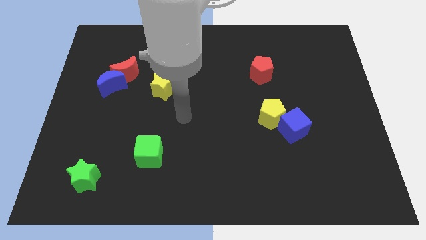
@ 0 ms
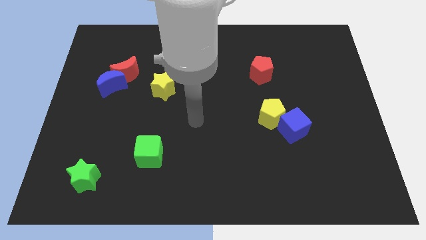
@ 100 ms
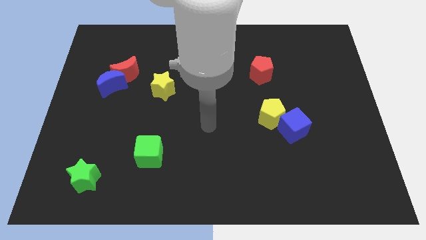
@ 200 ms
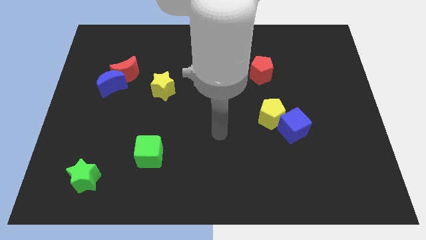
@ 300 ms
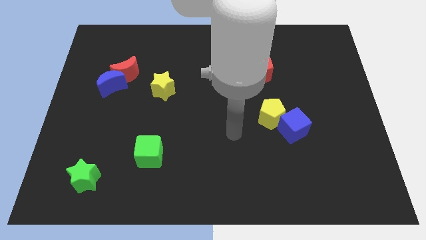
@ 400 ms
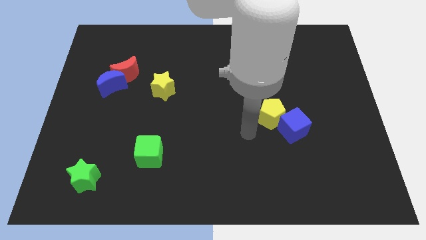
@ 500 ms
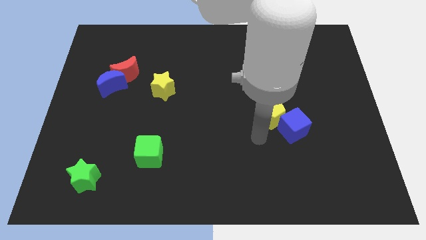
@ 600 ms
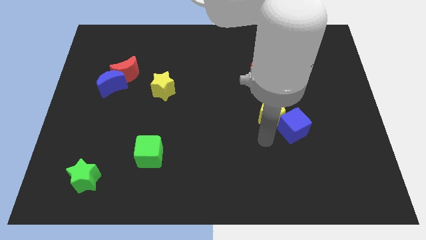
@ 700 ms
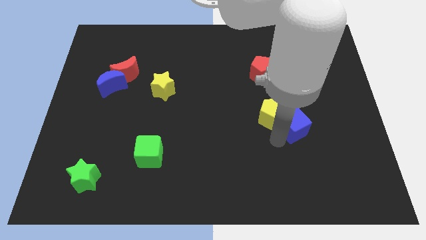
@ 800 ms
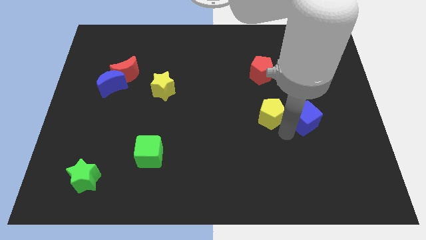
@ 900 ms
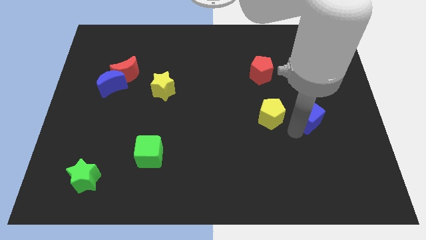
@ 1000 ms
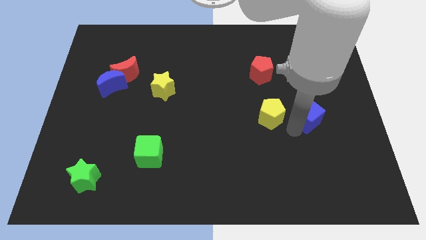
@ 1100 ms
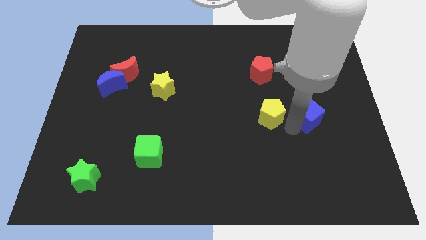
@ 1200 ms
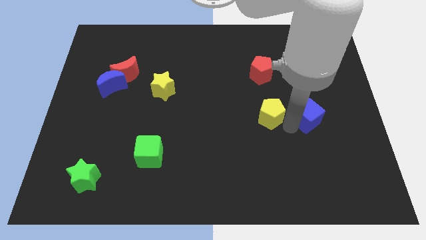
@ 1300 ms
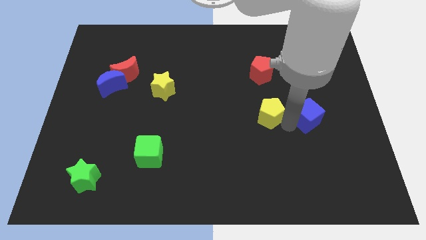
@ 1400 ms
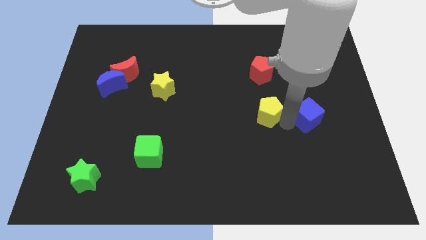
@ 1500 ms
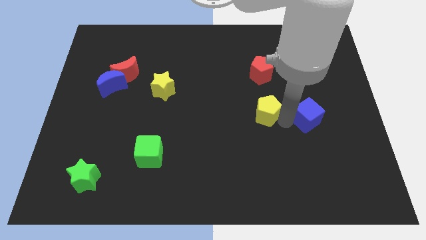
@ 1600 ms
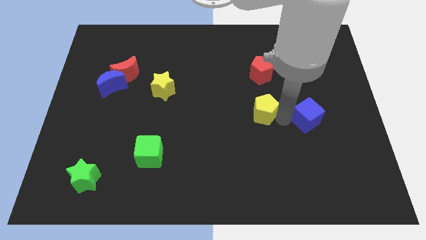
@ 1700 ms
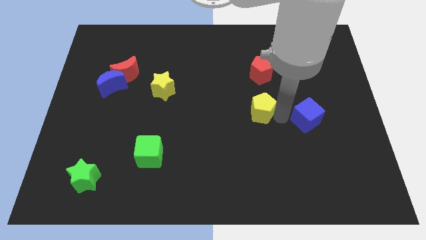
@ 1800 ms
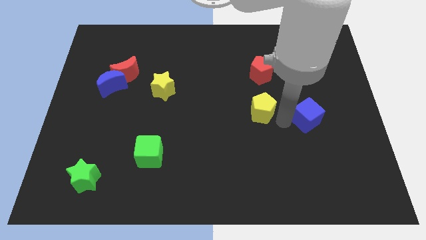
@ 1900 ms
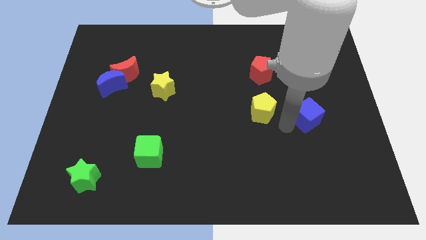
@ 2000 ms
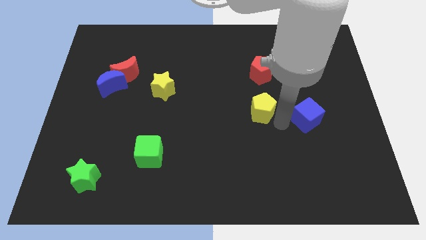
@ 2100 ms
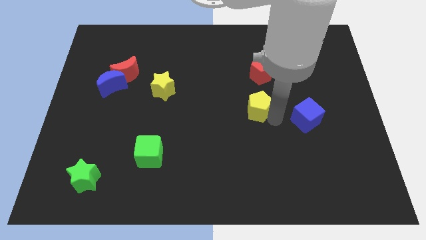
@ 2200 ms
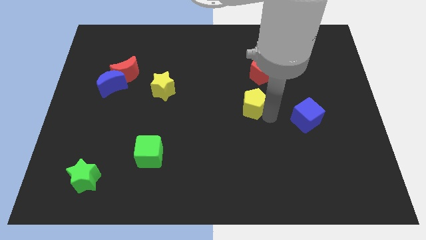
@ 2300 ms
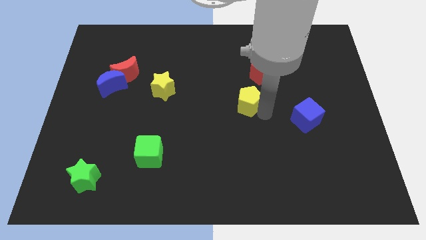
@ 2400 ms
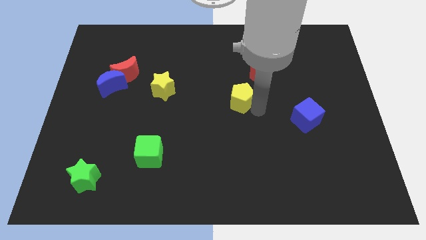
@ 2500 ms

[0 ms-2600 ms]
slightly push the yellow pentagon up and left

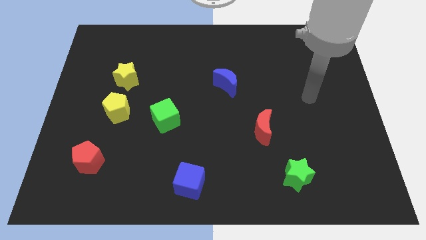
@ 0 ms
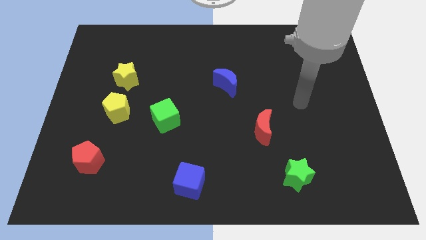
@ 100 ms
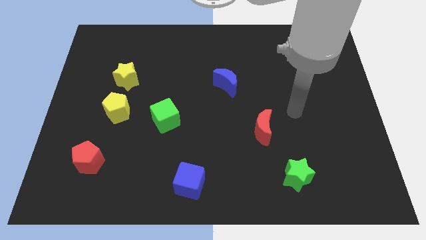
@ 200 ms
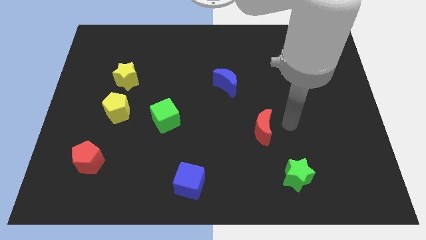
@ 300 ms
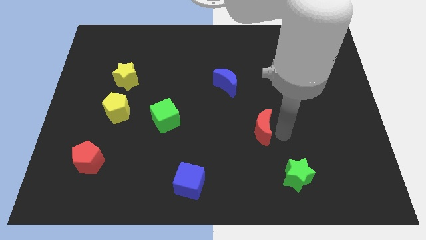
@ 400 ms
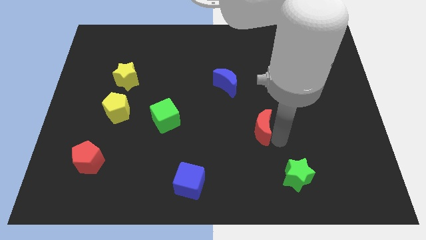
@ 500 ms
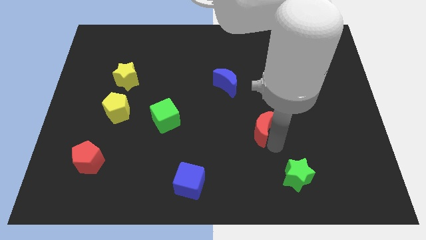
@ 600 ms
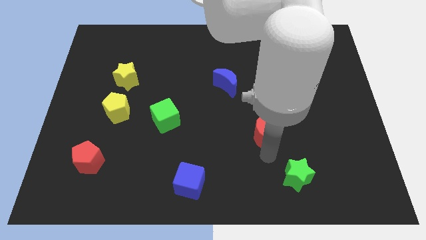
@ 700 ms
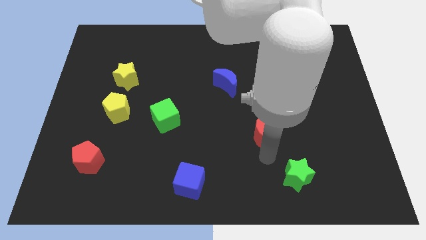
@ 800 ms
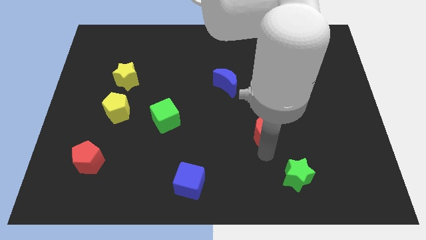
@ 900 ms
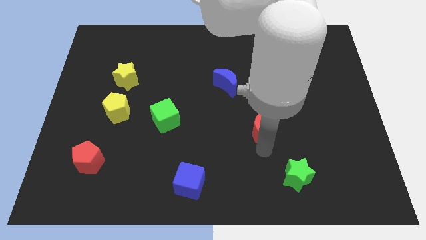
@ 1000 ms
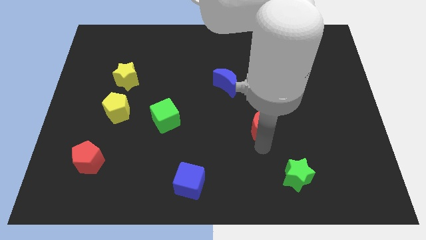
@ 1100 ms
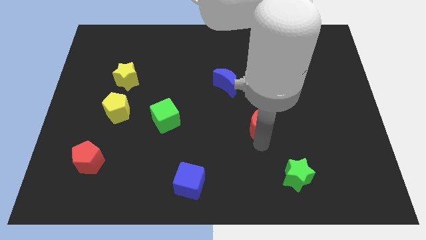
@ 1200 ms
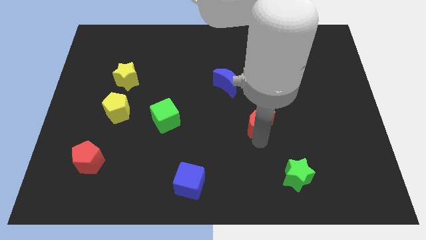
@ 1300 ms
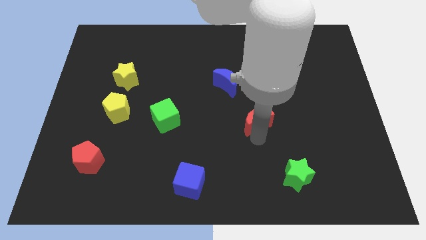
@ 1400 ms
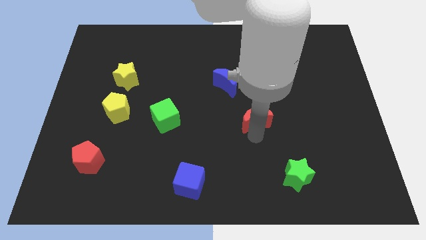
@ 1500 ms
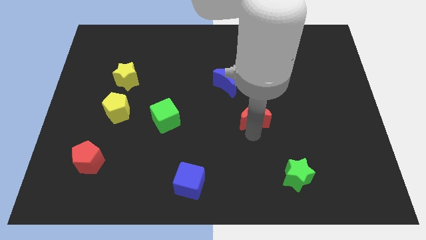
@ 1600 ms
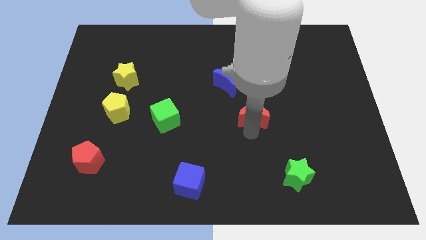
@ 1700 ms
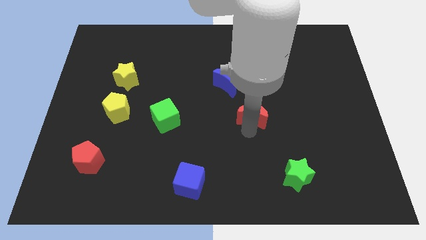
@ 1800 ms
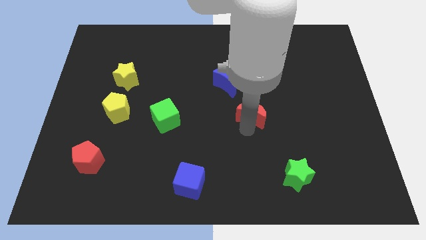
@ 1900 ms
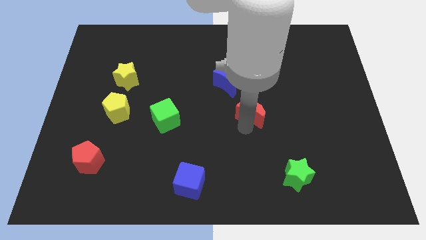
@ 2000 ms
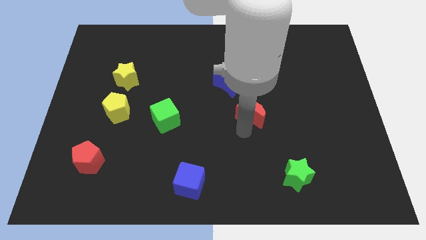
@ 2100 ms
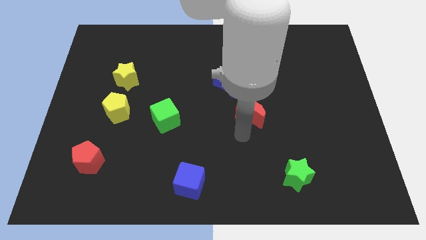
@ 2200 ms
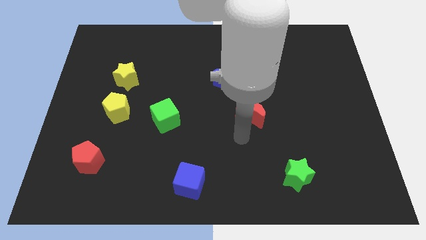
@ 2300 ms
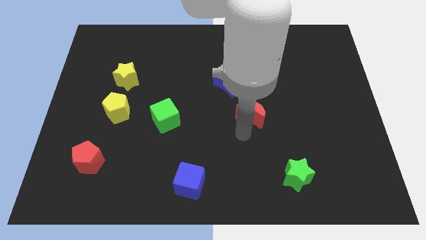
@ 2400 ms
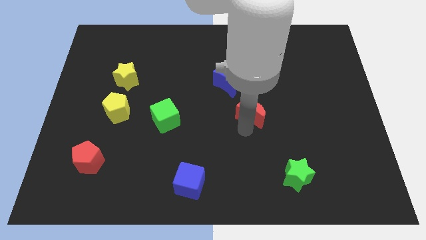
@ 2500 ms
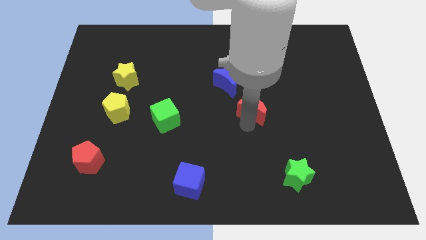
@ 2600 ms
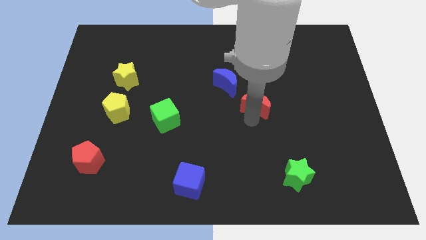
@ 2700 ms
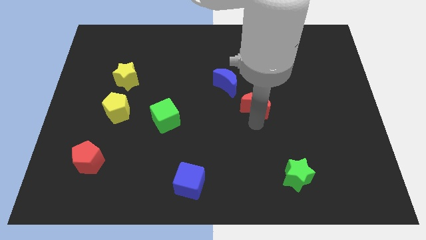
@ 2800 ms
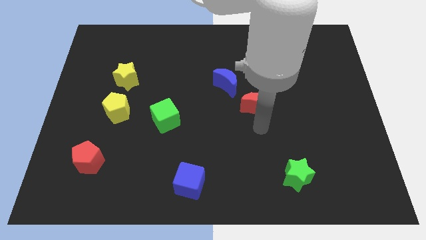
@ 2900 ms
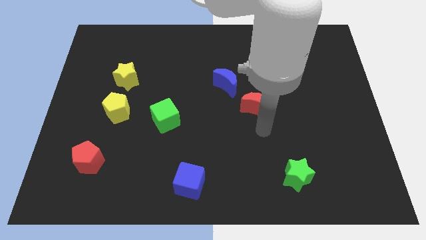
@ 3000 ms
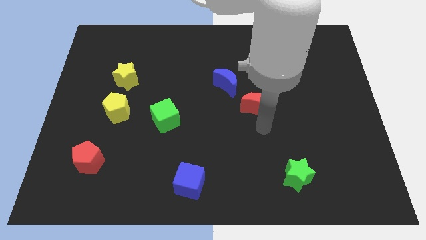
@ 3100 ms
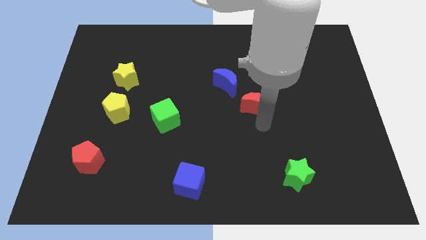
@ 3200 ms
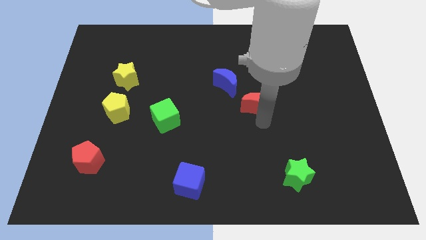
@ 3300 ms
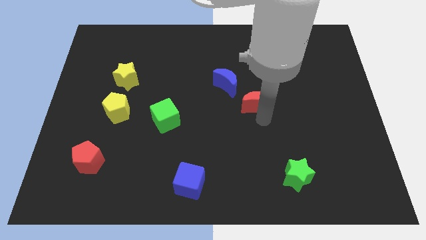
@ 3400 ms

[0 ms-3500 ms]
slightly slide the red moon upwards

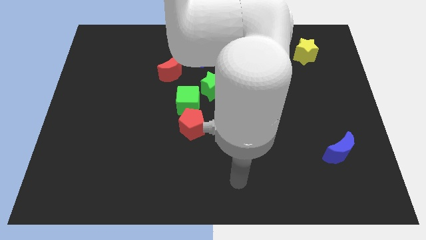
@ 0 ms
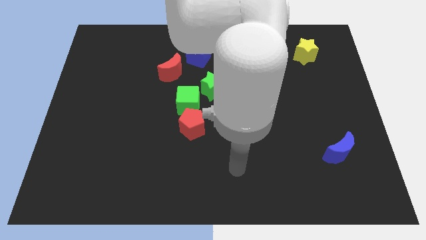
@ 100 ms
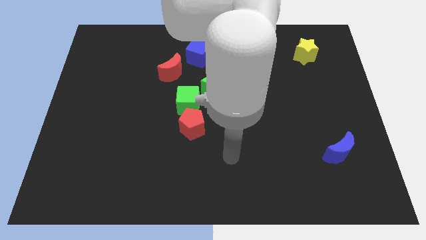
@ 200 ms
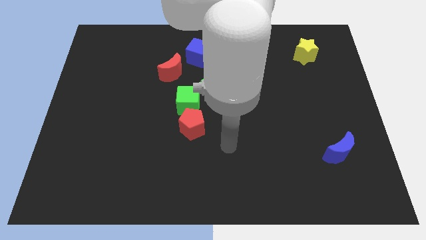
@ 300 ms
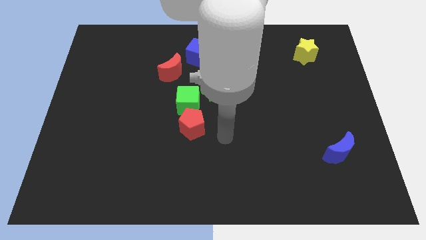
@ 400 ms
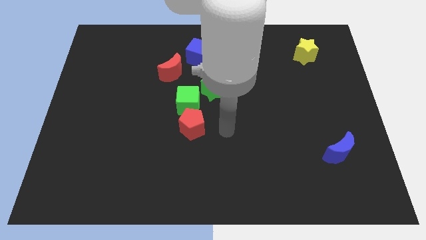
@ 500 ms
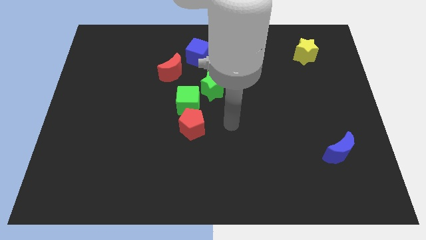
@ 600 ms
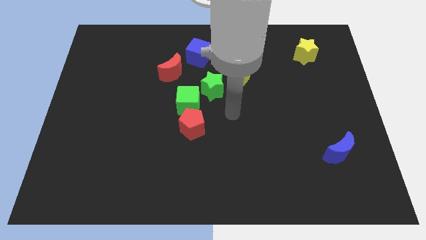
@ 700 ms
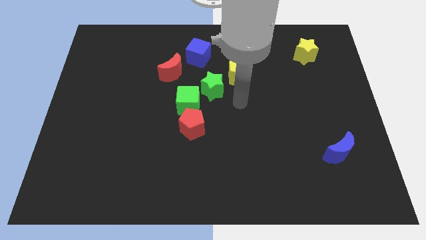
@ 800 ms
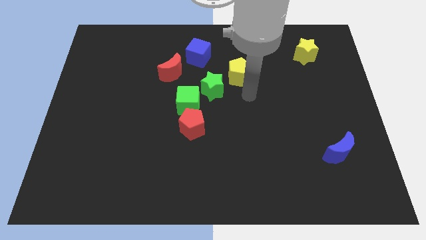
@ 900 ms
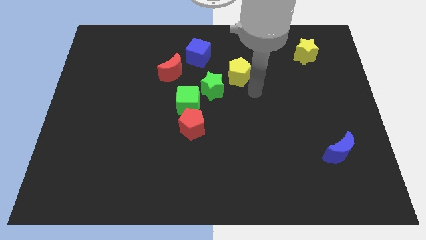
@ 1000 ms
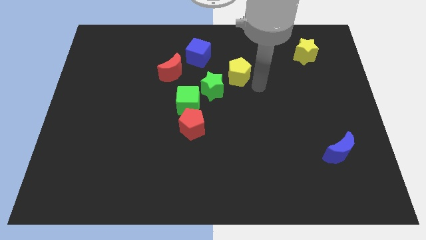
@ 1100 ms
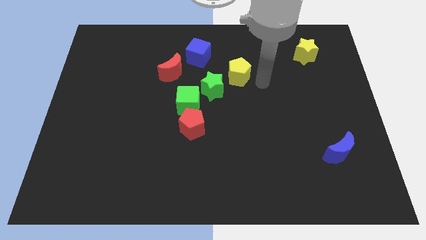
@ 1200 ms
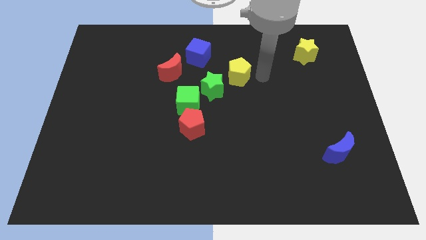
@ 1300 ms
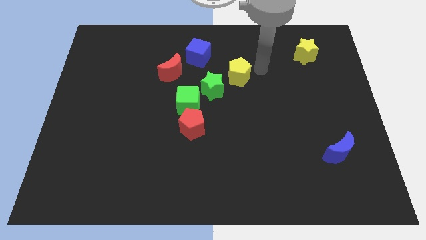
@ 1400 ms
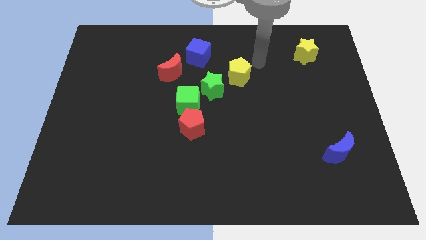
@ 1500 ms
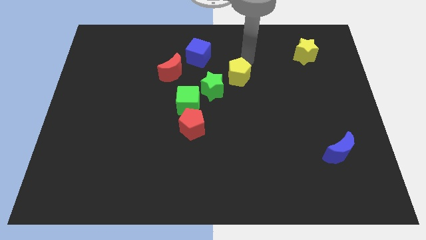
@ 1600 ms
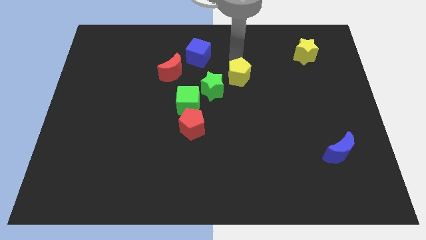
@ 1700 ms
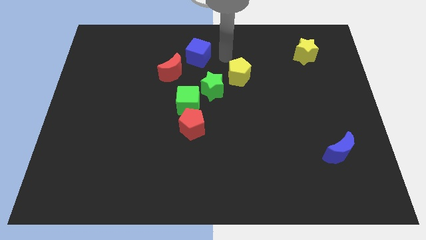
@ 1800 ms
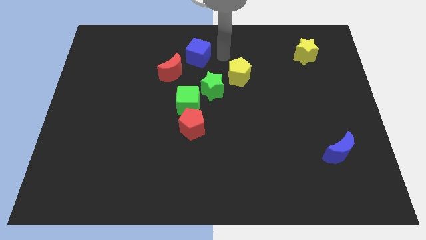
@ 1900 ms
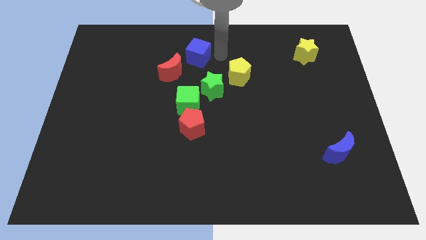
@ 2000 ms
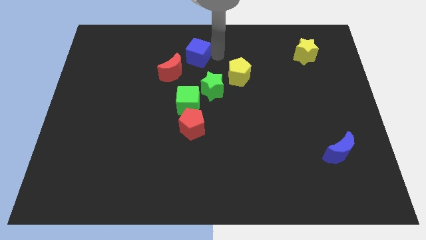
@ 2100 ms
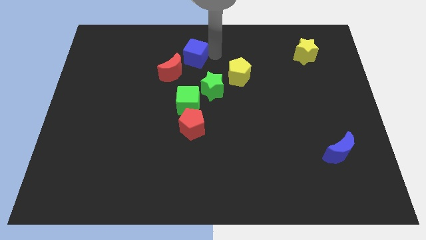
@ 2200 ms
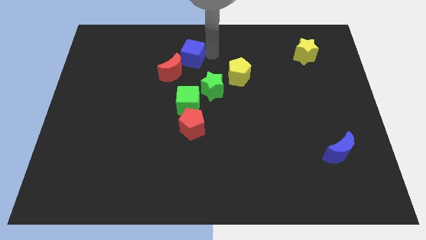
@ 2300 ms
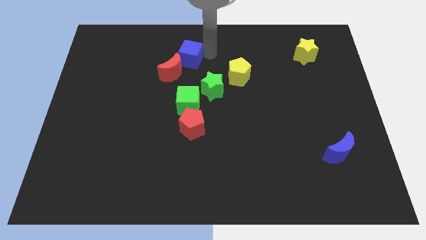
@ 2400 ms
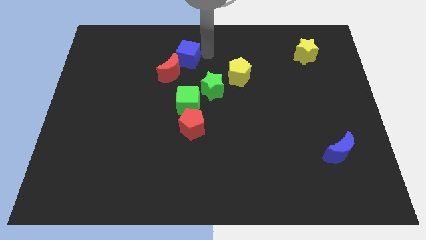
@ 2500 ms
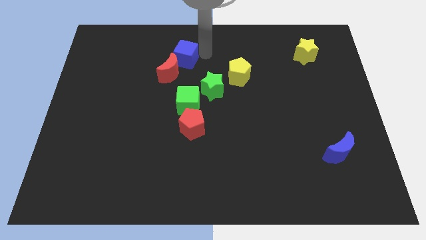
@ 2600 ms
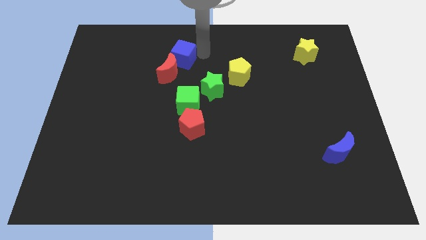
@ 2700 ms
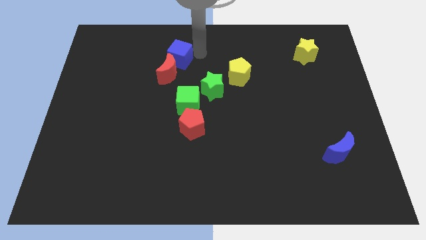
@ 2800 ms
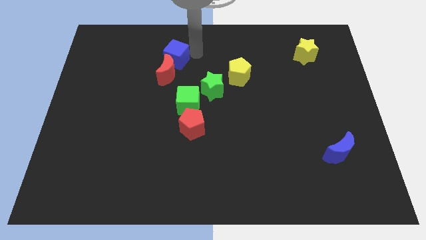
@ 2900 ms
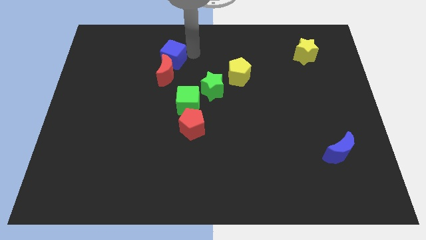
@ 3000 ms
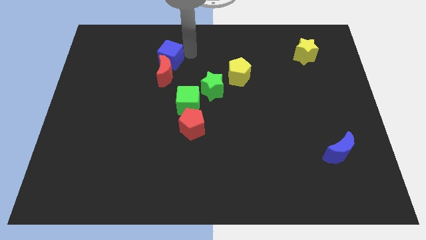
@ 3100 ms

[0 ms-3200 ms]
slide the blue cube somewhat to the left
